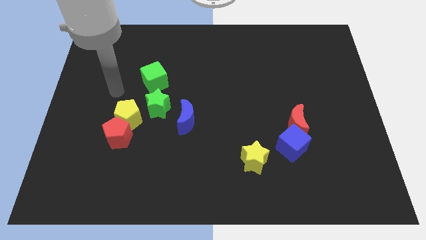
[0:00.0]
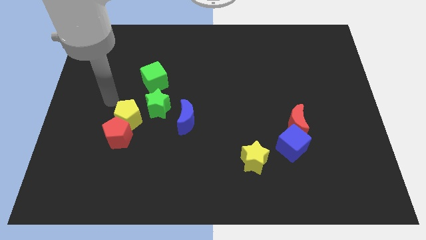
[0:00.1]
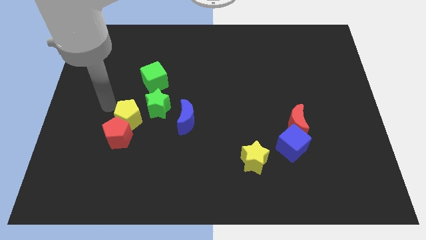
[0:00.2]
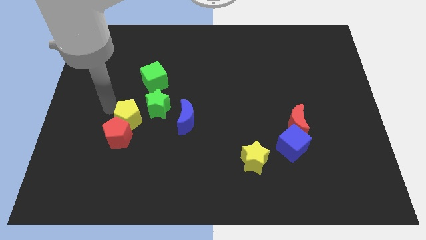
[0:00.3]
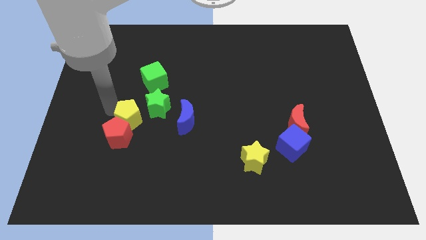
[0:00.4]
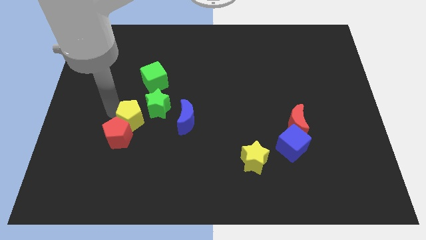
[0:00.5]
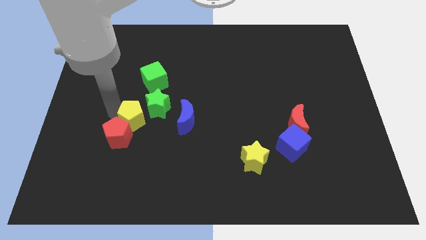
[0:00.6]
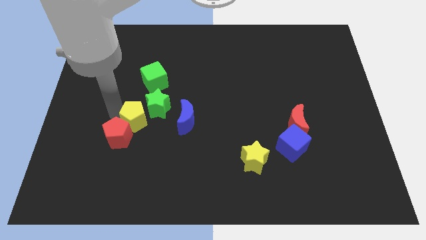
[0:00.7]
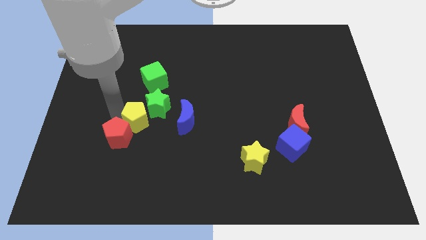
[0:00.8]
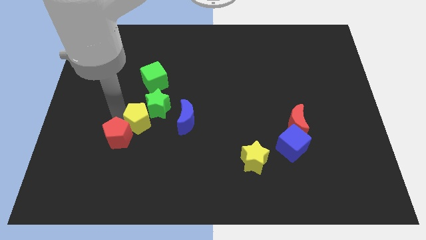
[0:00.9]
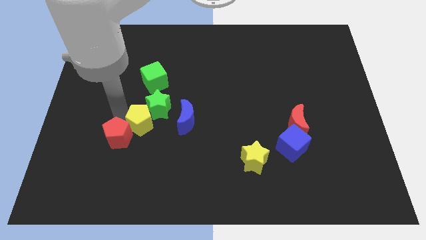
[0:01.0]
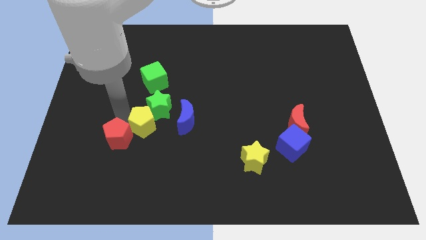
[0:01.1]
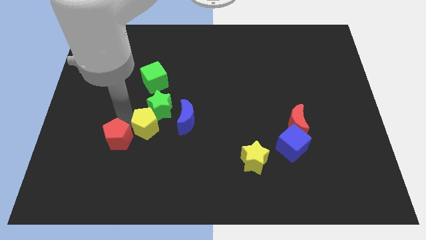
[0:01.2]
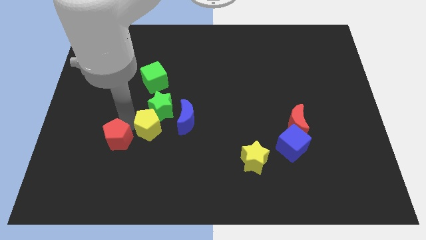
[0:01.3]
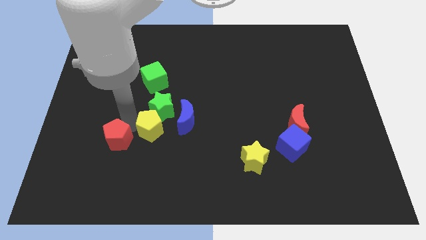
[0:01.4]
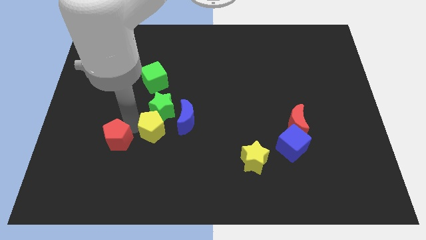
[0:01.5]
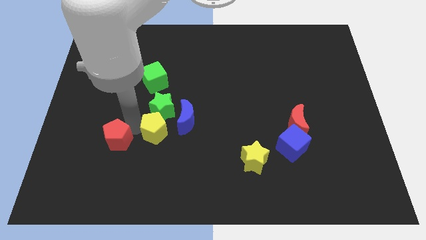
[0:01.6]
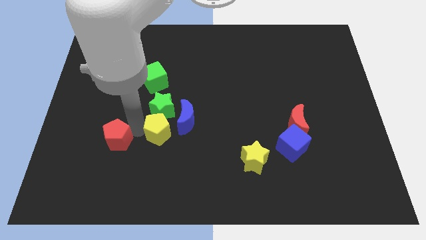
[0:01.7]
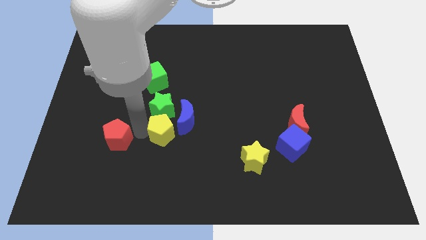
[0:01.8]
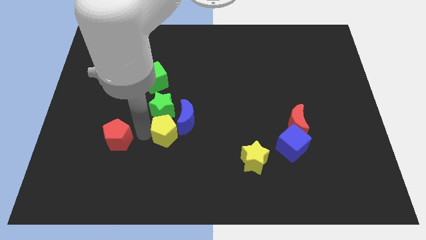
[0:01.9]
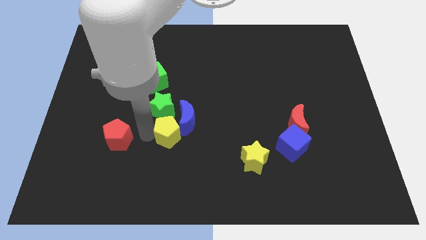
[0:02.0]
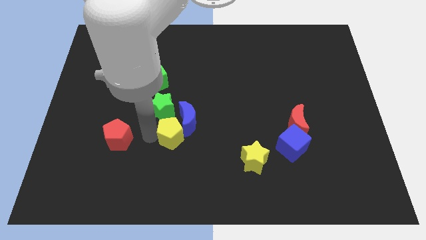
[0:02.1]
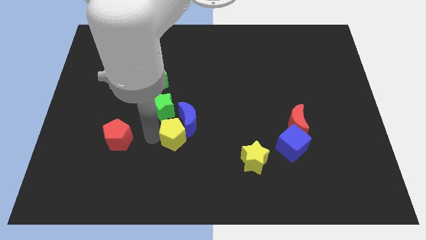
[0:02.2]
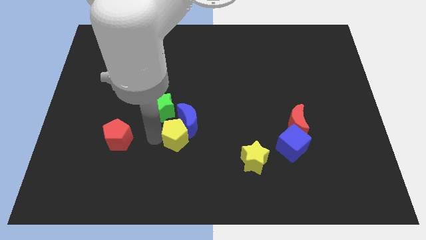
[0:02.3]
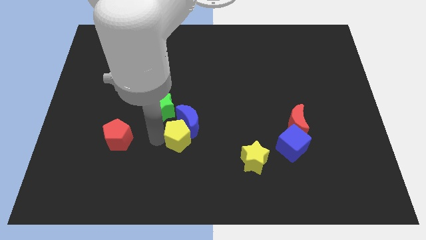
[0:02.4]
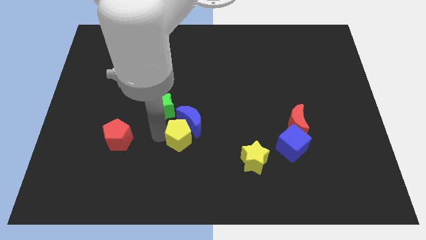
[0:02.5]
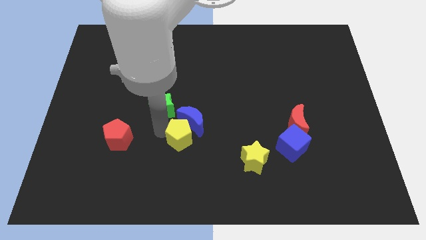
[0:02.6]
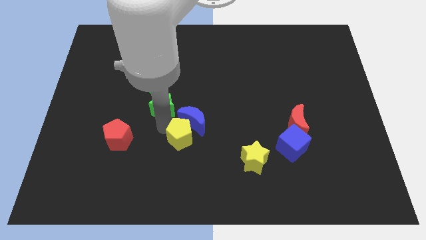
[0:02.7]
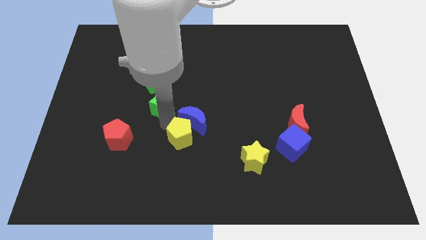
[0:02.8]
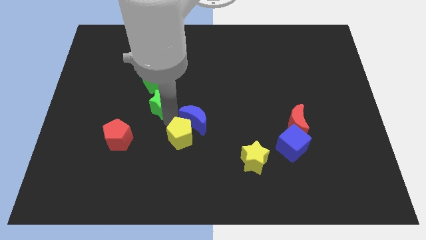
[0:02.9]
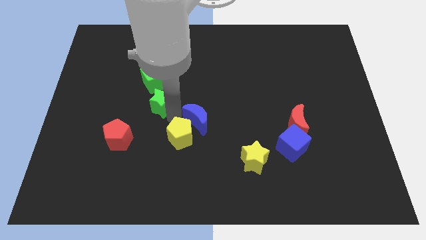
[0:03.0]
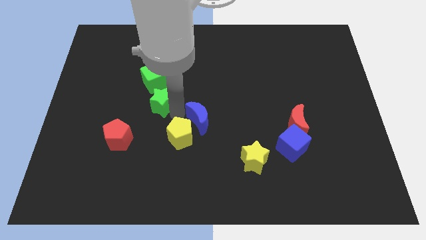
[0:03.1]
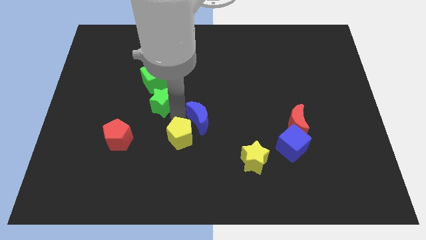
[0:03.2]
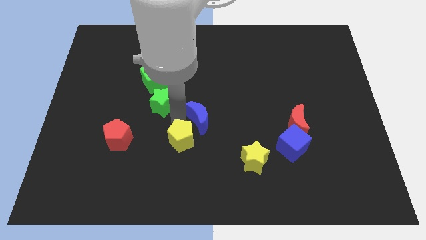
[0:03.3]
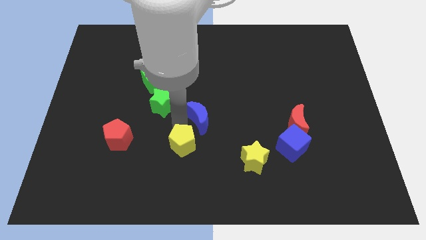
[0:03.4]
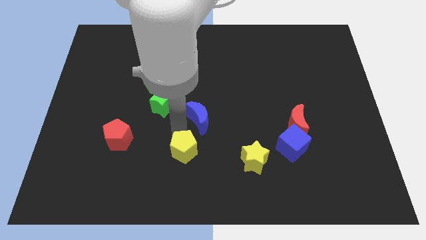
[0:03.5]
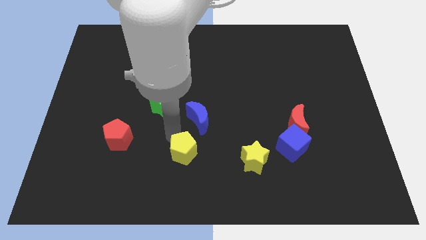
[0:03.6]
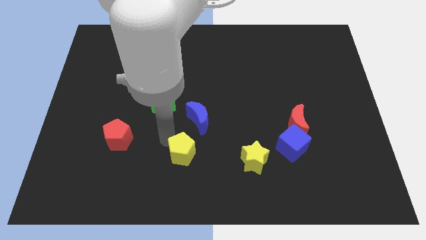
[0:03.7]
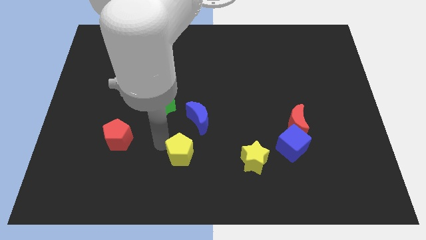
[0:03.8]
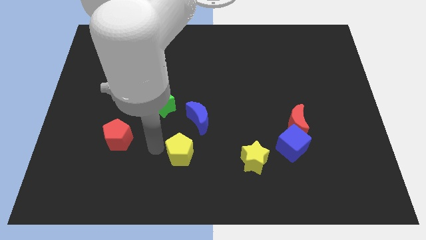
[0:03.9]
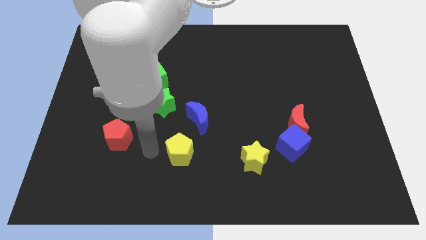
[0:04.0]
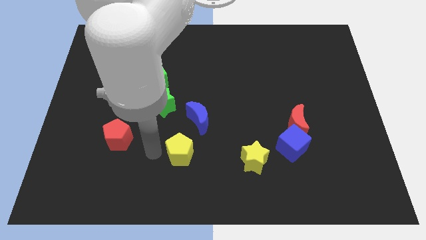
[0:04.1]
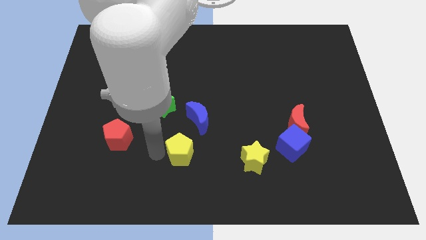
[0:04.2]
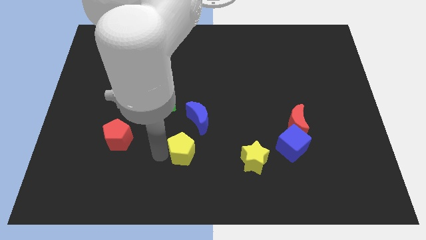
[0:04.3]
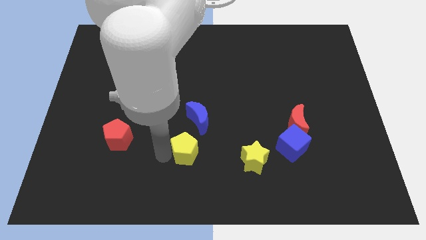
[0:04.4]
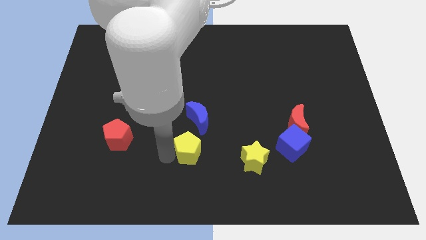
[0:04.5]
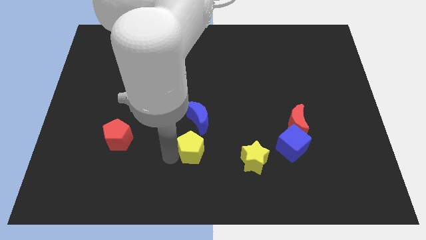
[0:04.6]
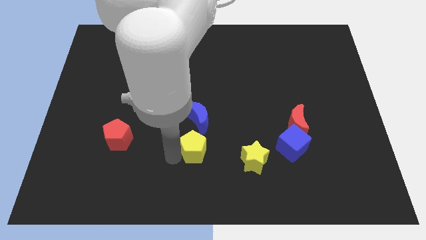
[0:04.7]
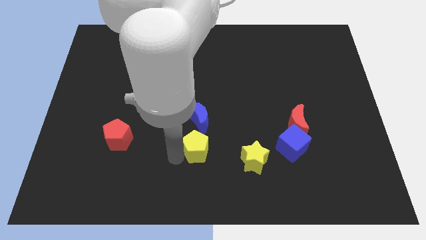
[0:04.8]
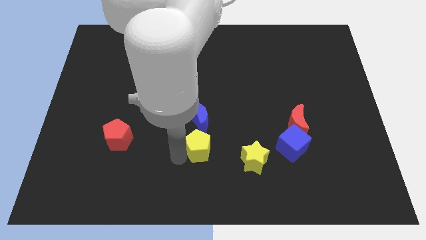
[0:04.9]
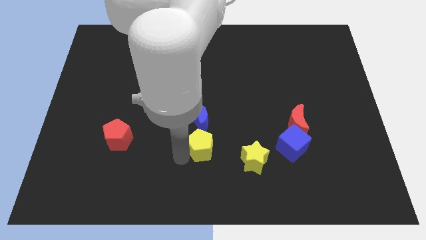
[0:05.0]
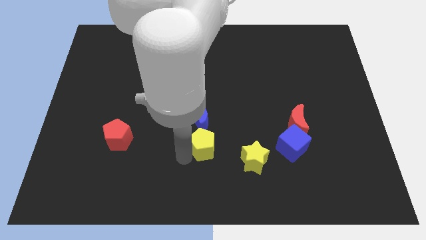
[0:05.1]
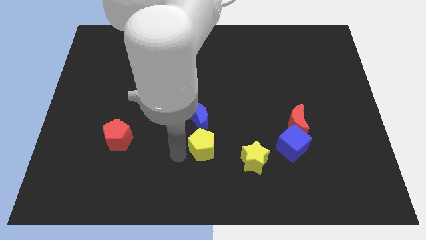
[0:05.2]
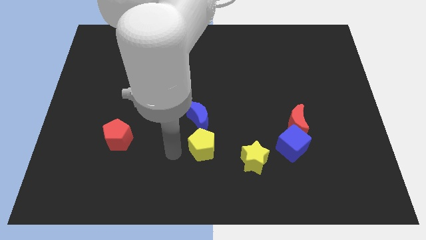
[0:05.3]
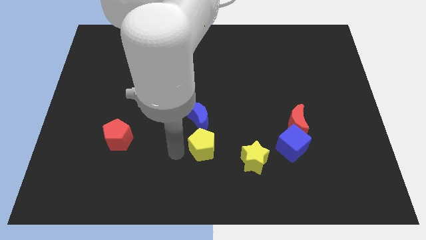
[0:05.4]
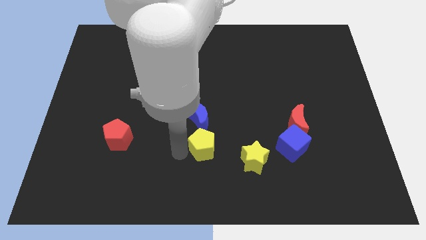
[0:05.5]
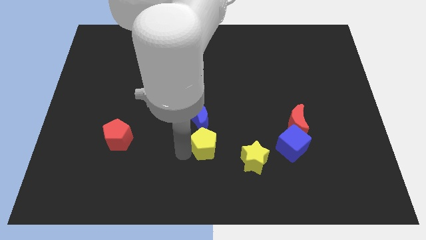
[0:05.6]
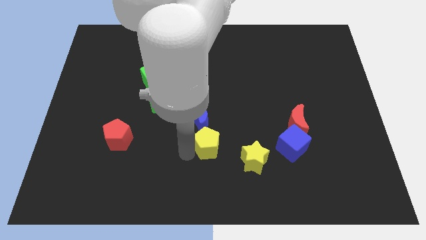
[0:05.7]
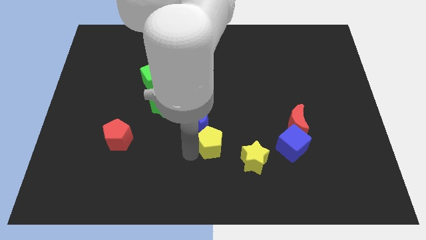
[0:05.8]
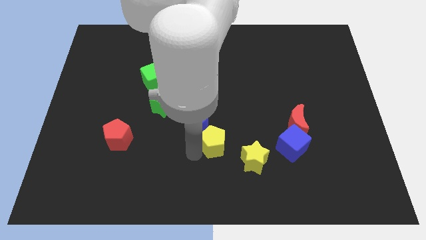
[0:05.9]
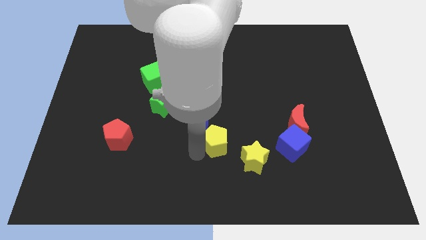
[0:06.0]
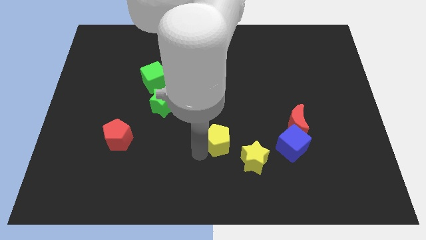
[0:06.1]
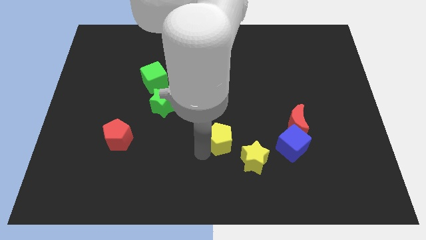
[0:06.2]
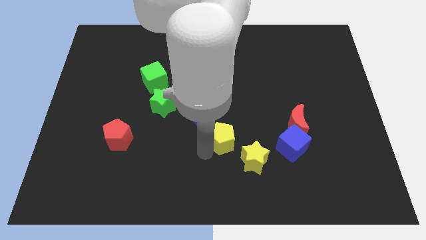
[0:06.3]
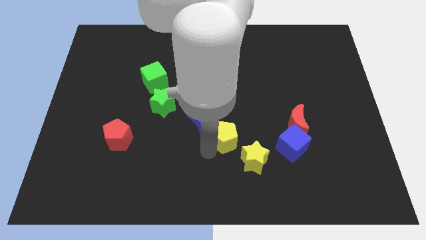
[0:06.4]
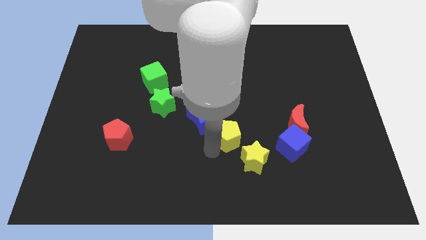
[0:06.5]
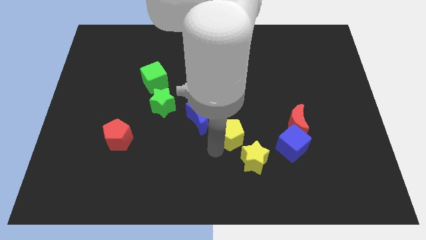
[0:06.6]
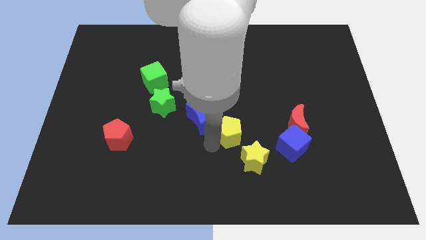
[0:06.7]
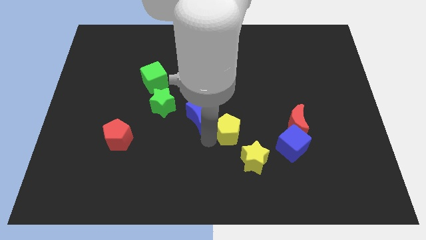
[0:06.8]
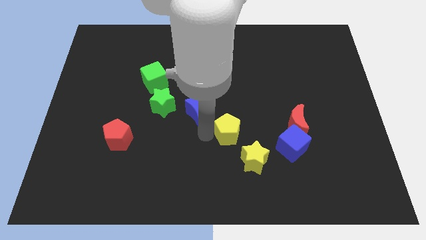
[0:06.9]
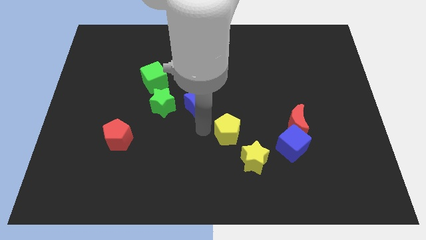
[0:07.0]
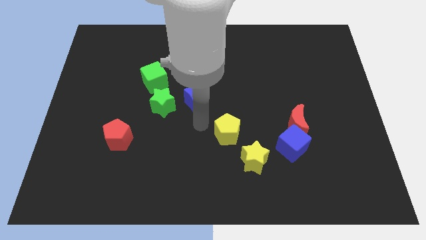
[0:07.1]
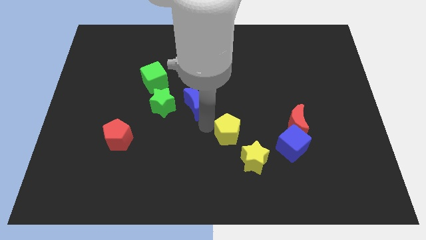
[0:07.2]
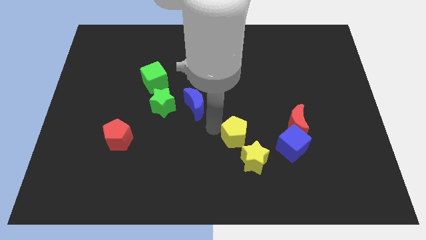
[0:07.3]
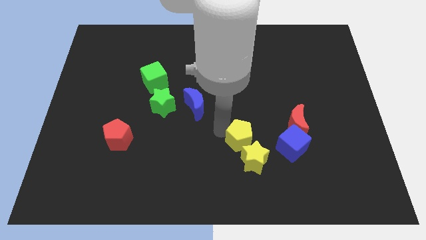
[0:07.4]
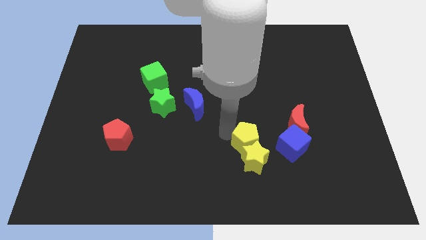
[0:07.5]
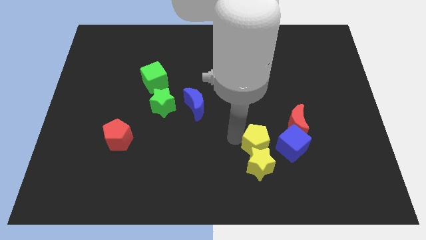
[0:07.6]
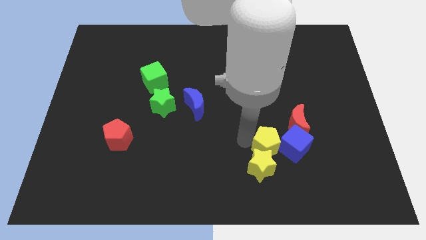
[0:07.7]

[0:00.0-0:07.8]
move the yellow pentagon close to the blue cube
